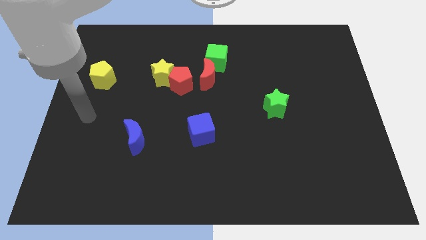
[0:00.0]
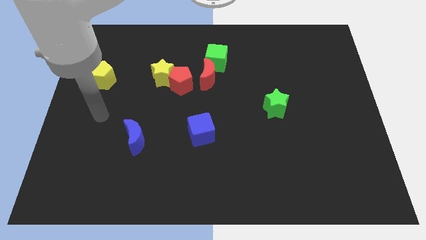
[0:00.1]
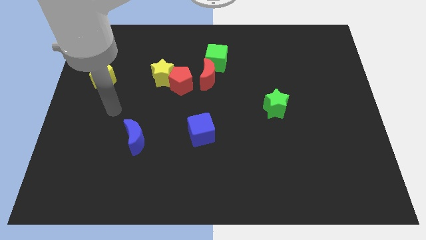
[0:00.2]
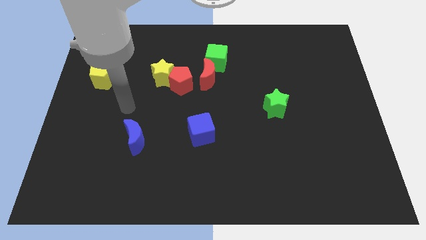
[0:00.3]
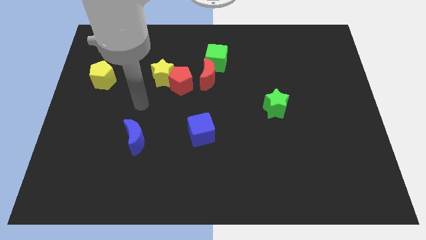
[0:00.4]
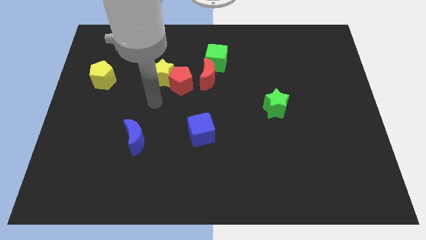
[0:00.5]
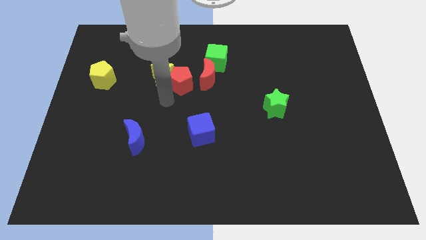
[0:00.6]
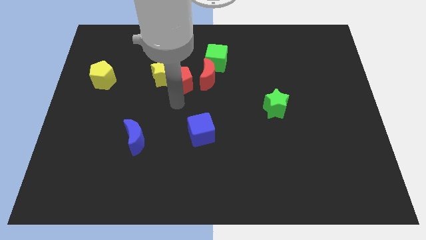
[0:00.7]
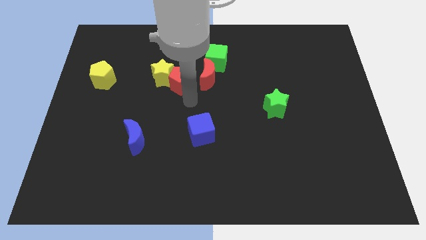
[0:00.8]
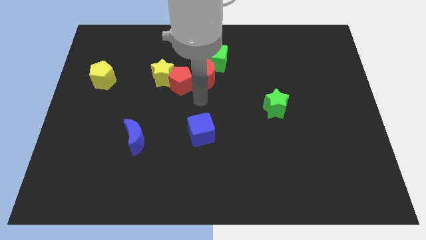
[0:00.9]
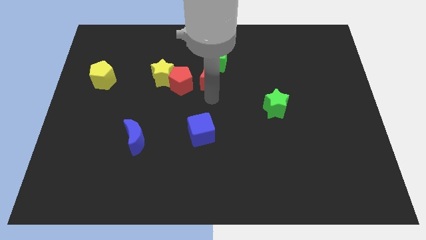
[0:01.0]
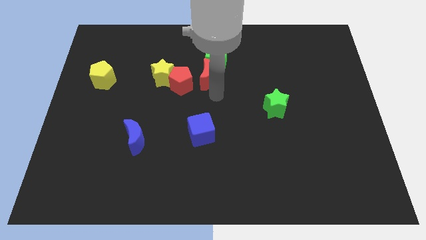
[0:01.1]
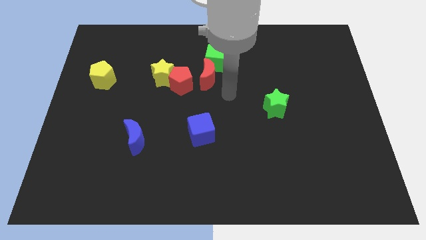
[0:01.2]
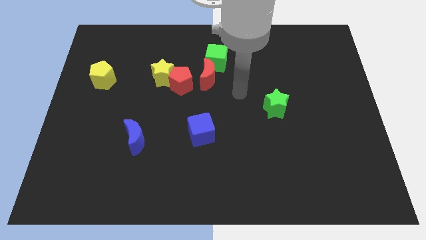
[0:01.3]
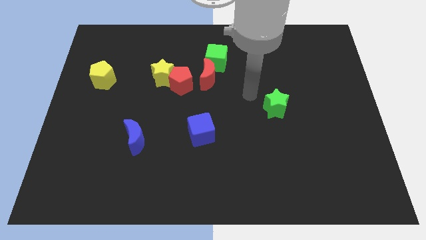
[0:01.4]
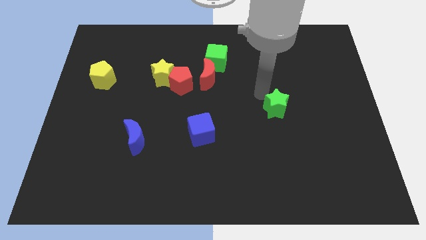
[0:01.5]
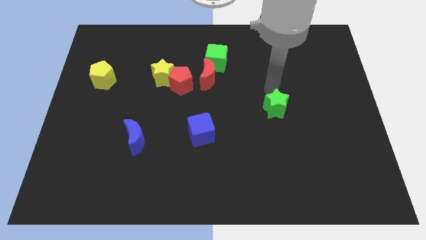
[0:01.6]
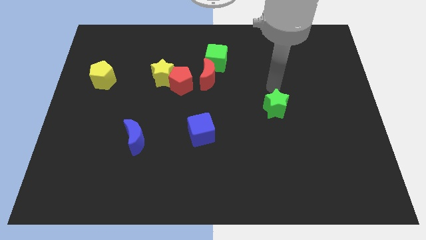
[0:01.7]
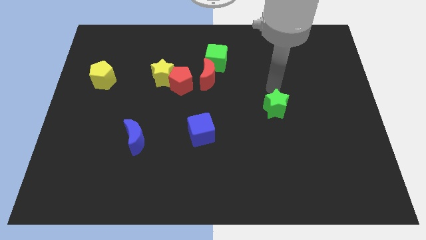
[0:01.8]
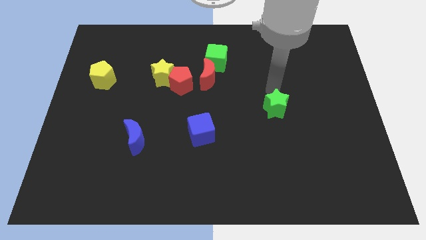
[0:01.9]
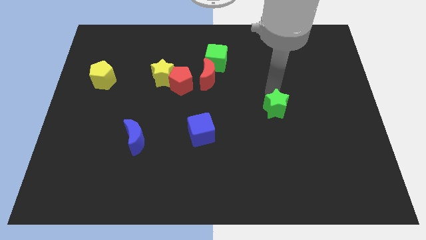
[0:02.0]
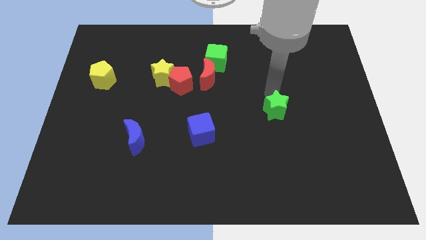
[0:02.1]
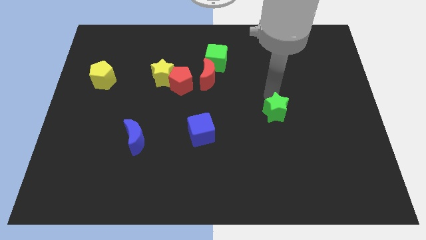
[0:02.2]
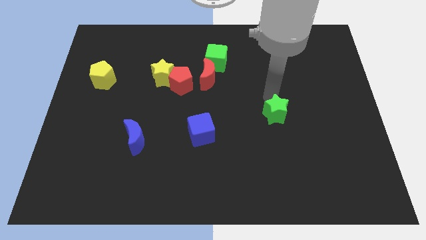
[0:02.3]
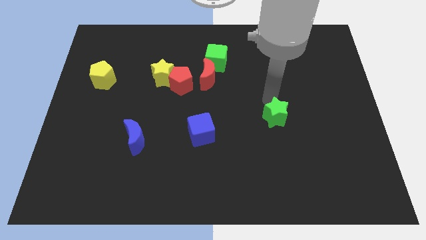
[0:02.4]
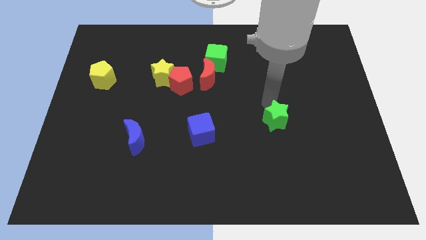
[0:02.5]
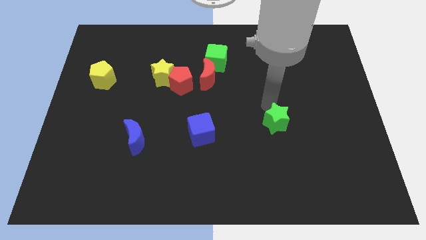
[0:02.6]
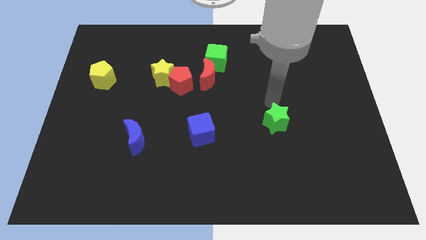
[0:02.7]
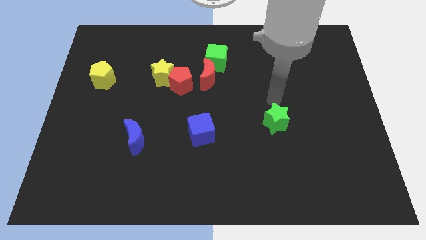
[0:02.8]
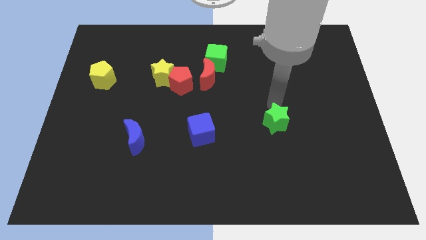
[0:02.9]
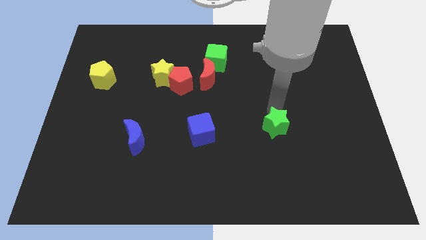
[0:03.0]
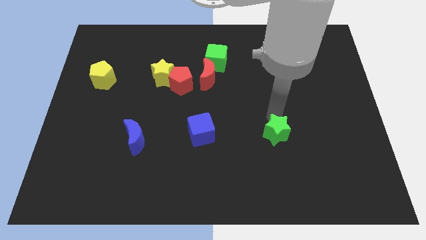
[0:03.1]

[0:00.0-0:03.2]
slightly push the green star down

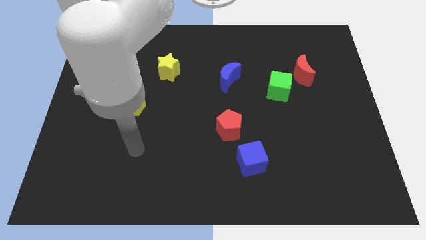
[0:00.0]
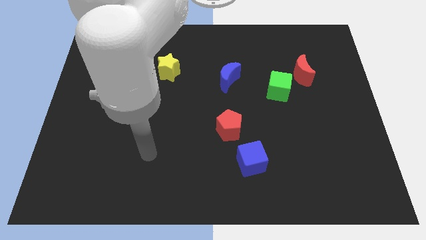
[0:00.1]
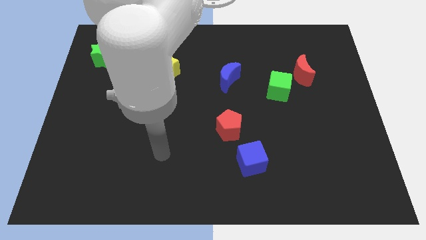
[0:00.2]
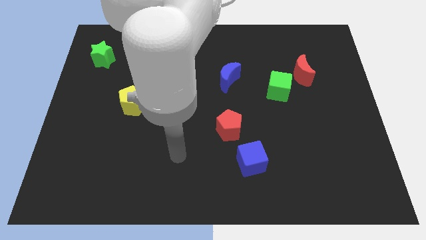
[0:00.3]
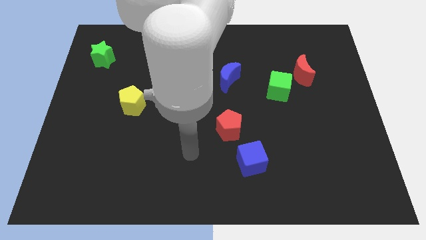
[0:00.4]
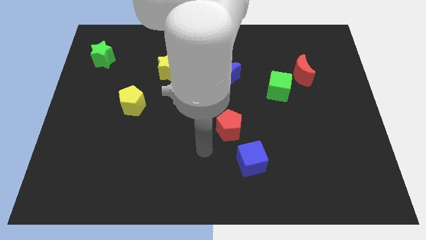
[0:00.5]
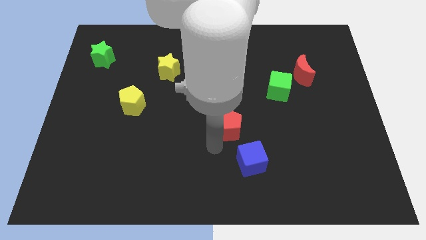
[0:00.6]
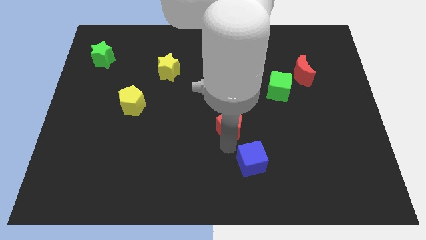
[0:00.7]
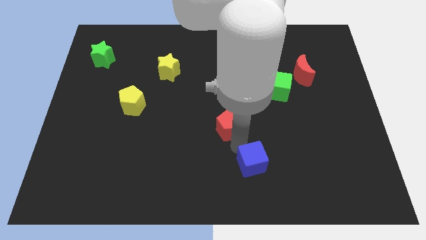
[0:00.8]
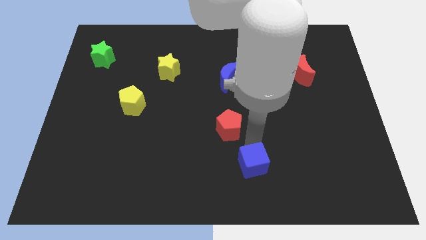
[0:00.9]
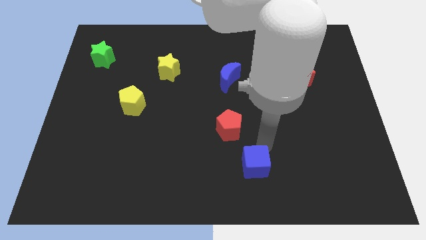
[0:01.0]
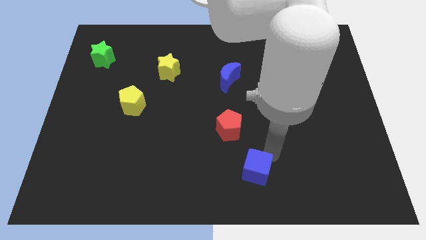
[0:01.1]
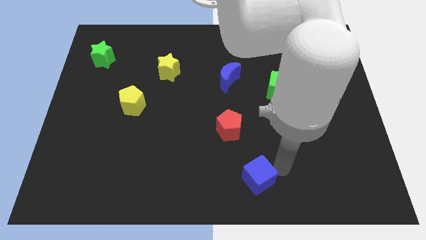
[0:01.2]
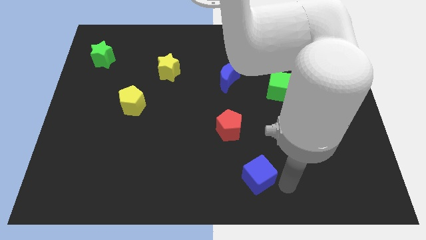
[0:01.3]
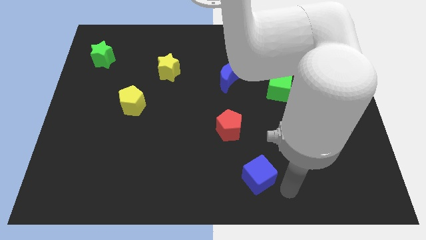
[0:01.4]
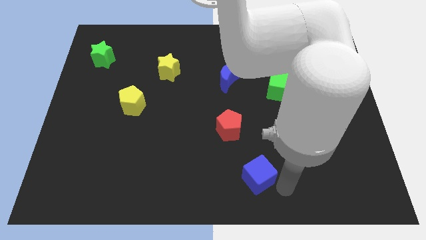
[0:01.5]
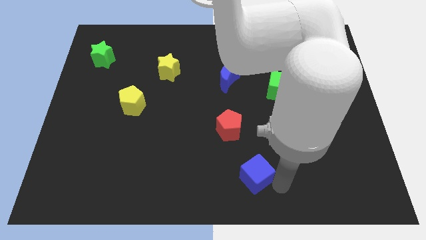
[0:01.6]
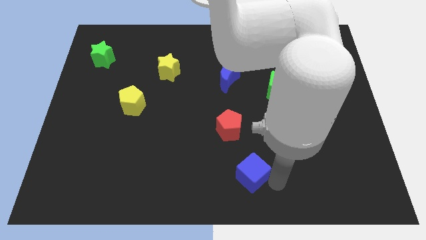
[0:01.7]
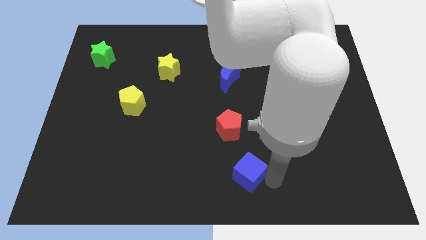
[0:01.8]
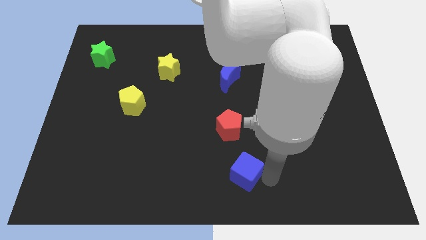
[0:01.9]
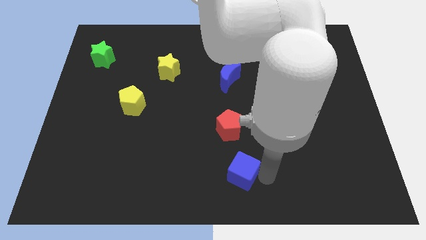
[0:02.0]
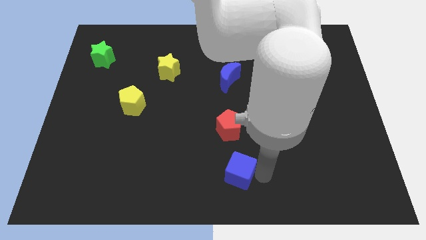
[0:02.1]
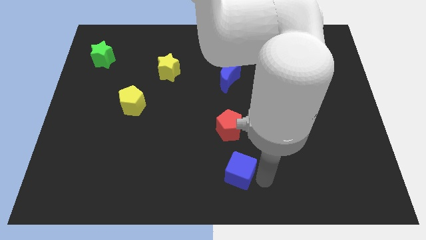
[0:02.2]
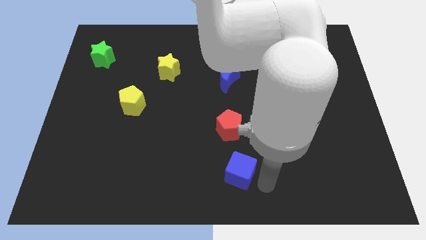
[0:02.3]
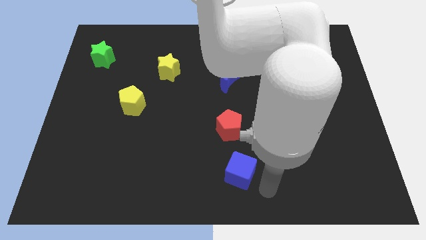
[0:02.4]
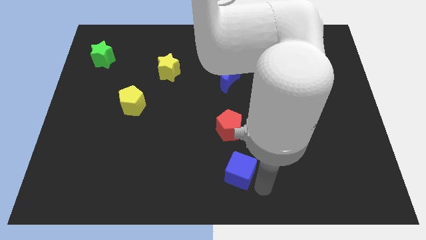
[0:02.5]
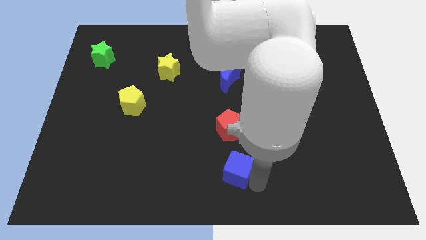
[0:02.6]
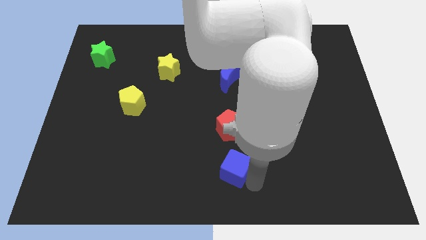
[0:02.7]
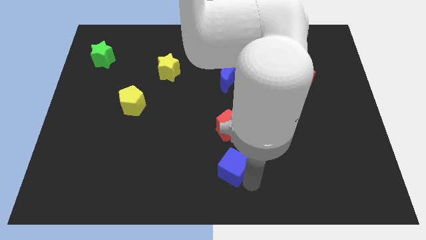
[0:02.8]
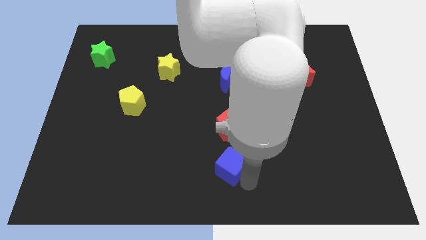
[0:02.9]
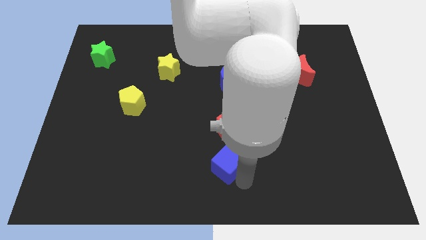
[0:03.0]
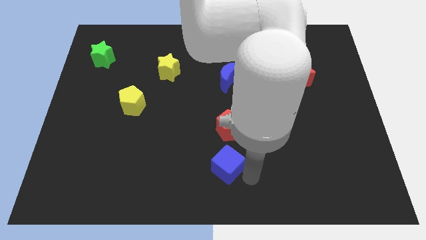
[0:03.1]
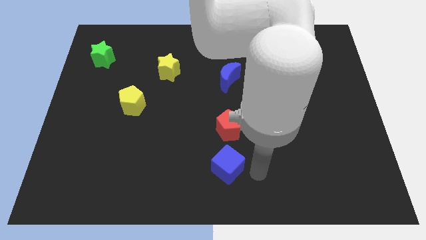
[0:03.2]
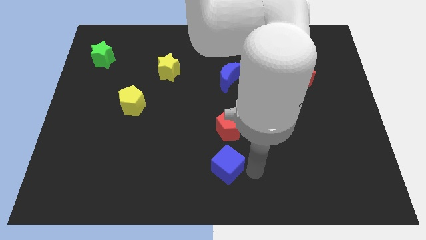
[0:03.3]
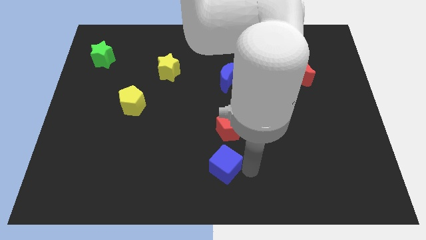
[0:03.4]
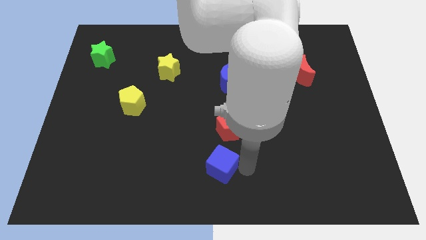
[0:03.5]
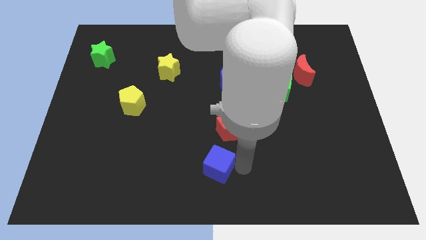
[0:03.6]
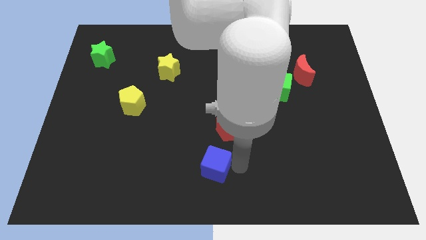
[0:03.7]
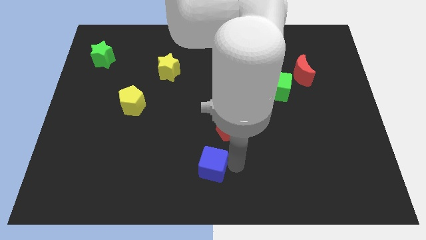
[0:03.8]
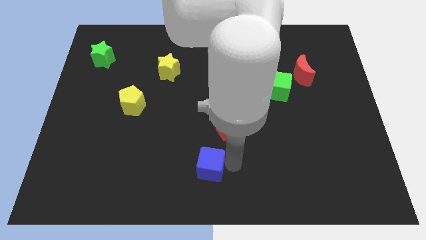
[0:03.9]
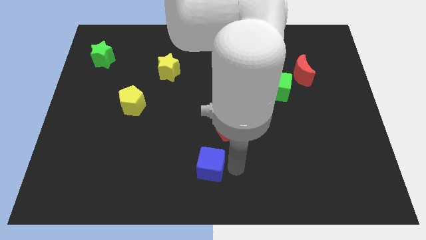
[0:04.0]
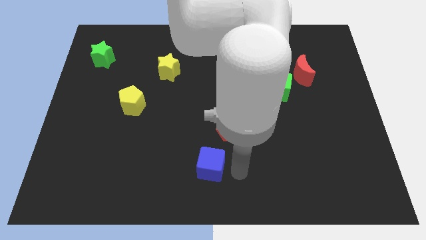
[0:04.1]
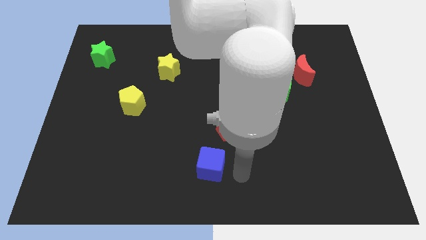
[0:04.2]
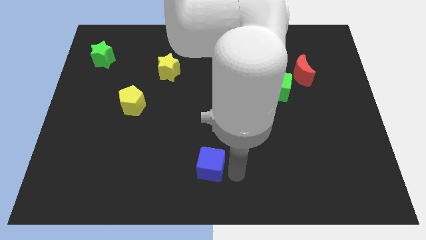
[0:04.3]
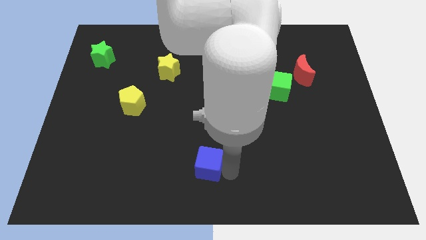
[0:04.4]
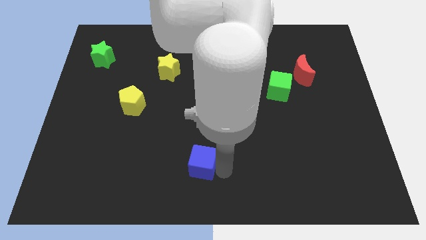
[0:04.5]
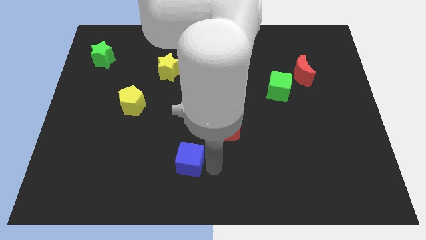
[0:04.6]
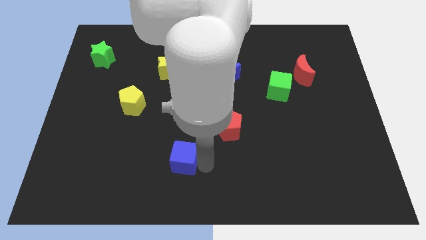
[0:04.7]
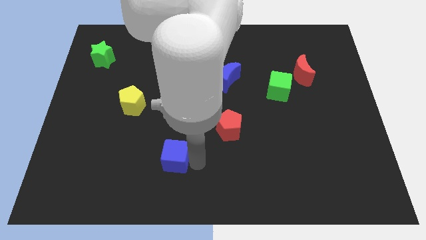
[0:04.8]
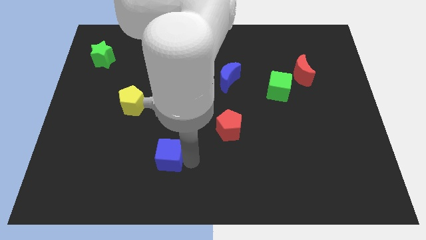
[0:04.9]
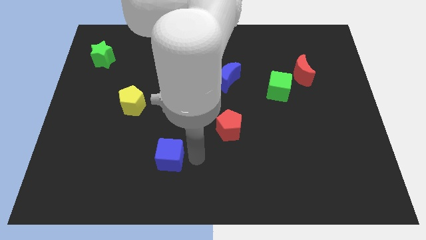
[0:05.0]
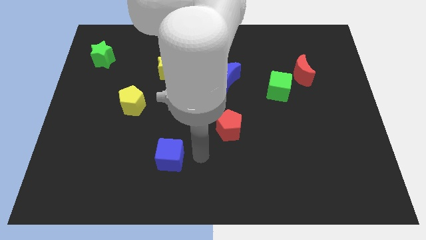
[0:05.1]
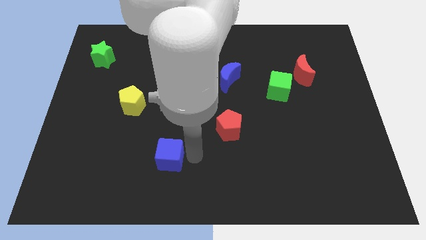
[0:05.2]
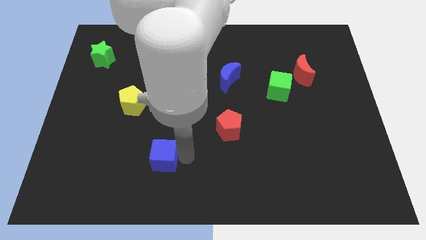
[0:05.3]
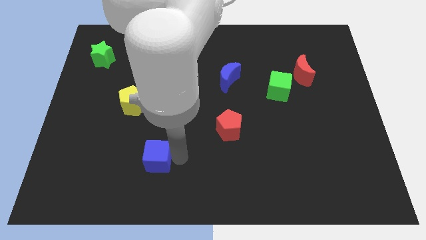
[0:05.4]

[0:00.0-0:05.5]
move the blue cube left
